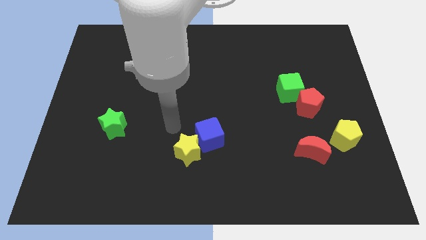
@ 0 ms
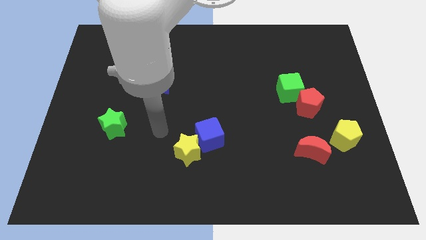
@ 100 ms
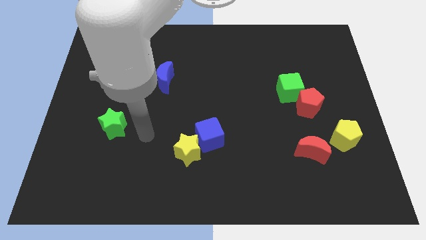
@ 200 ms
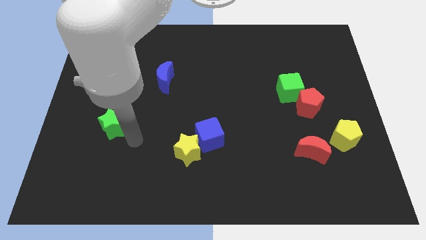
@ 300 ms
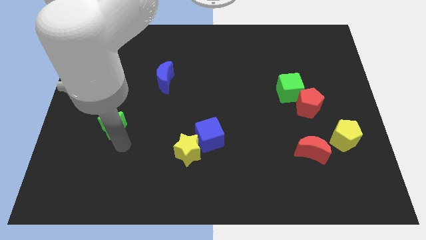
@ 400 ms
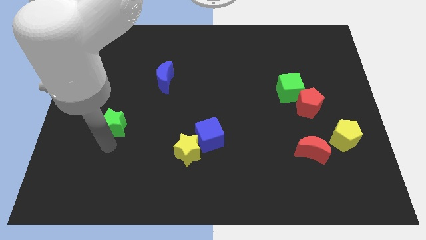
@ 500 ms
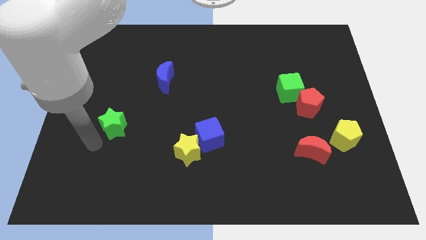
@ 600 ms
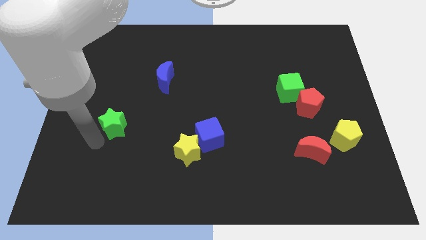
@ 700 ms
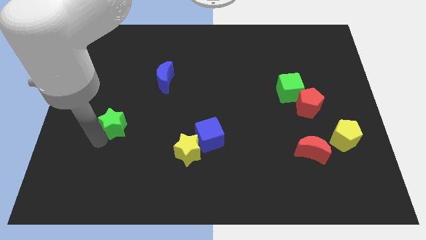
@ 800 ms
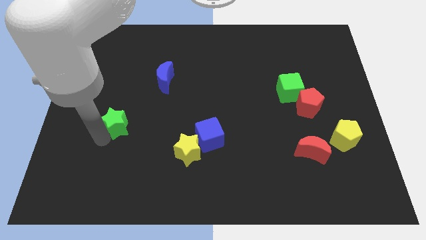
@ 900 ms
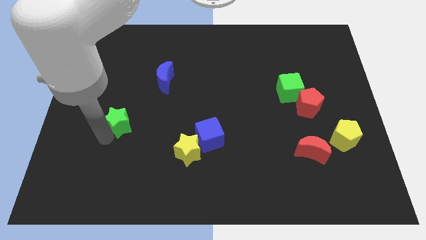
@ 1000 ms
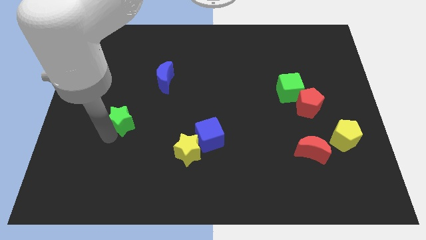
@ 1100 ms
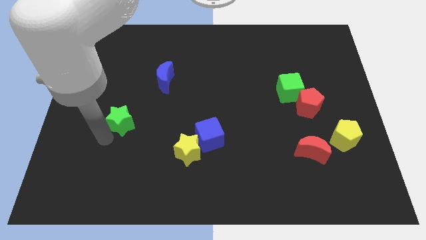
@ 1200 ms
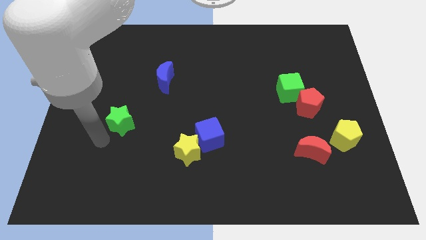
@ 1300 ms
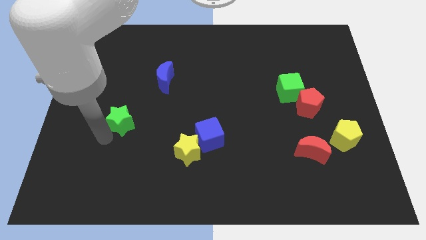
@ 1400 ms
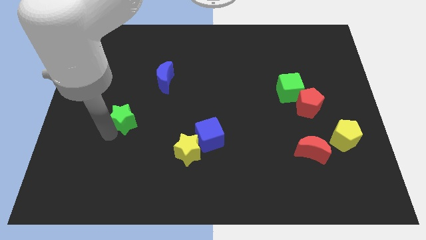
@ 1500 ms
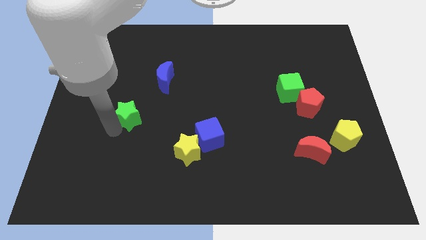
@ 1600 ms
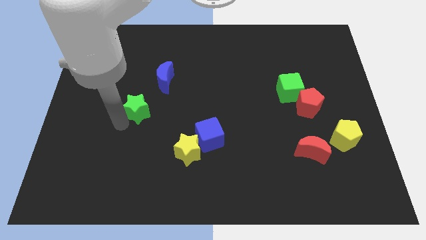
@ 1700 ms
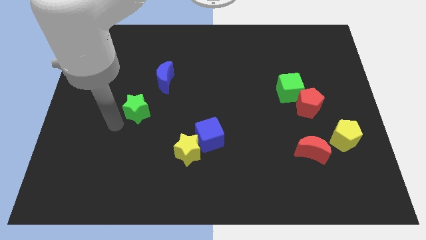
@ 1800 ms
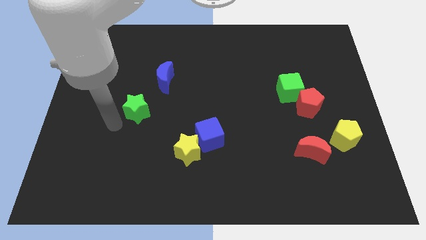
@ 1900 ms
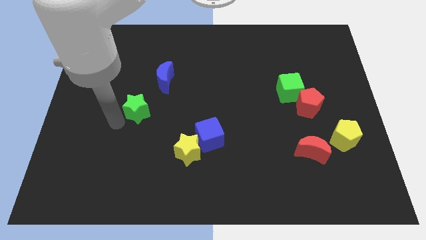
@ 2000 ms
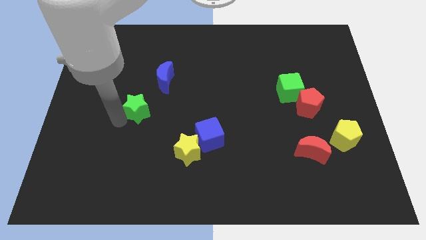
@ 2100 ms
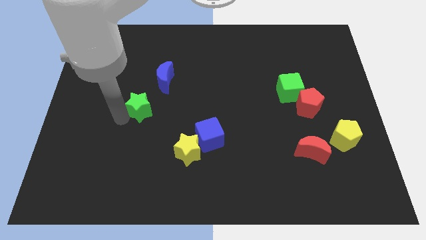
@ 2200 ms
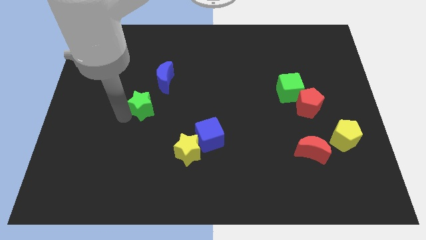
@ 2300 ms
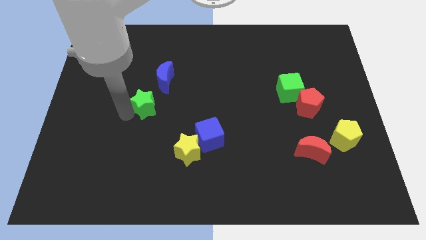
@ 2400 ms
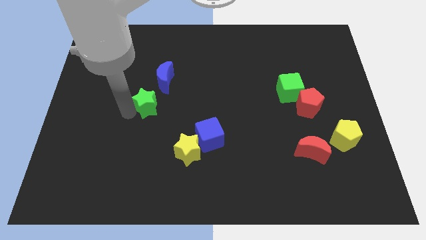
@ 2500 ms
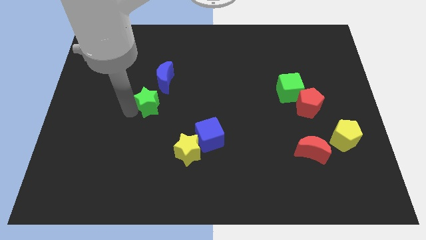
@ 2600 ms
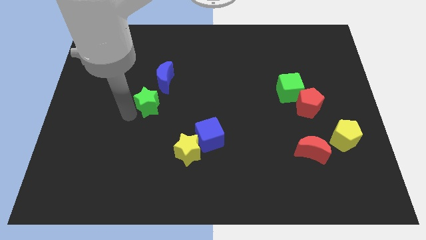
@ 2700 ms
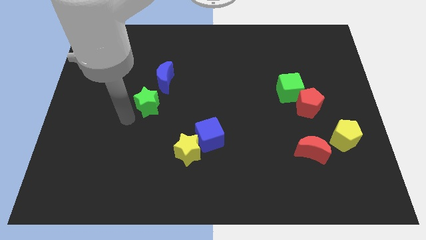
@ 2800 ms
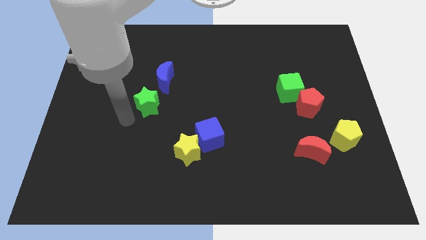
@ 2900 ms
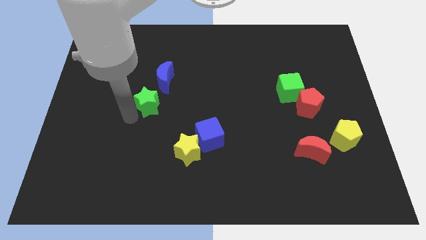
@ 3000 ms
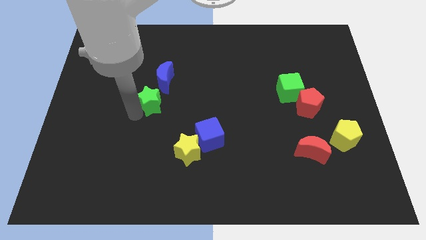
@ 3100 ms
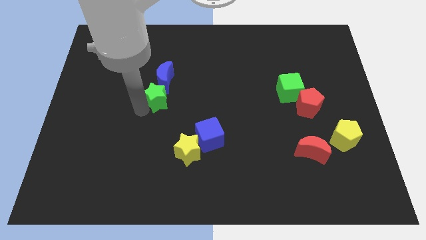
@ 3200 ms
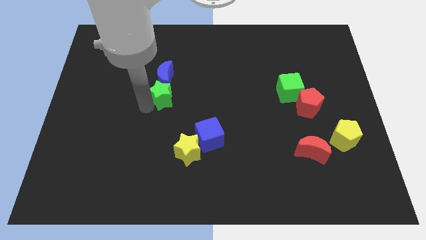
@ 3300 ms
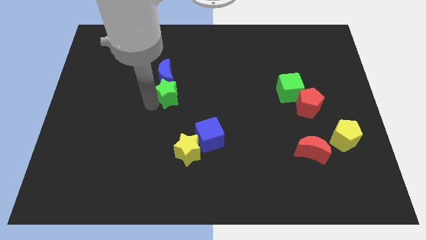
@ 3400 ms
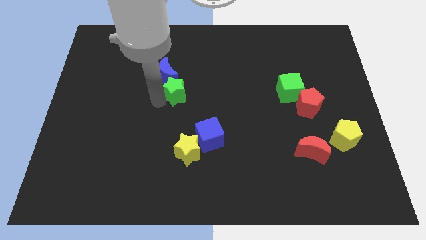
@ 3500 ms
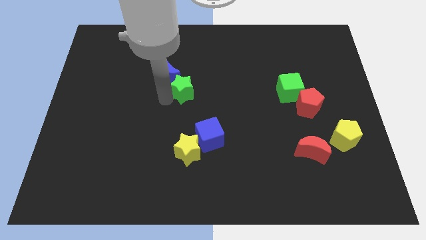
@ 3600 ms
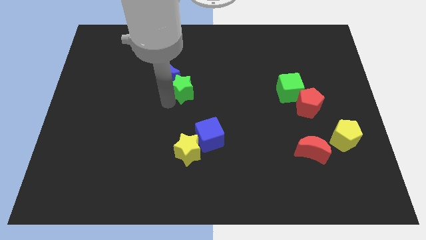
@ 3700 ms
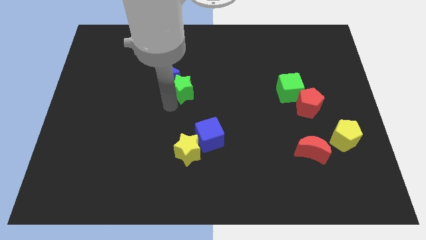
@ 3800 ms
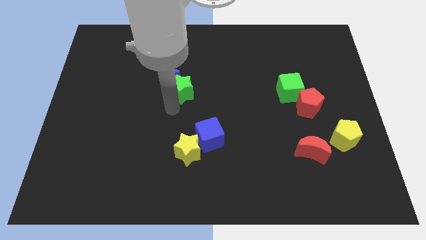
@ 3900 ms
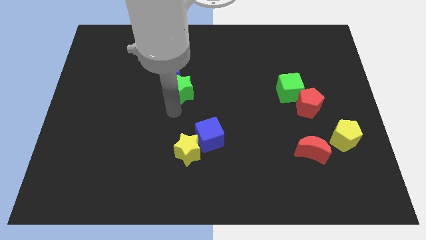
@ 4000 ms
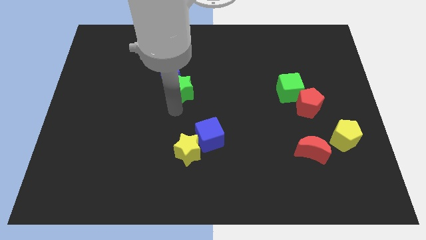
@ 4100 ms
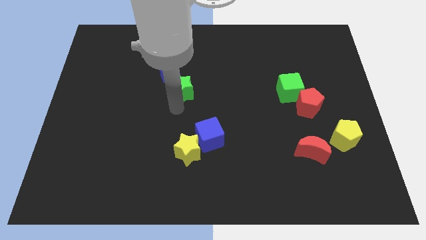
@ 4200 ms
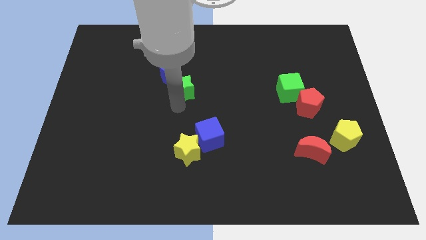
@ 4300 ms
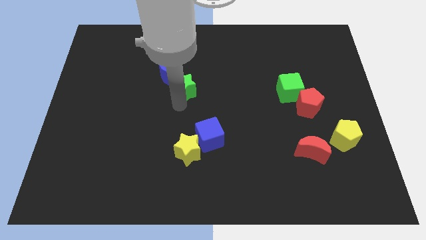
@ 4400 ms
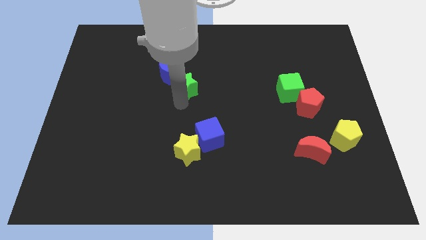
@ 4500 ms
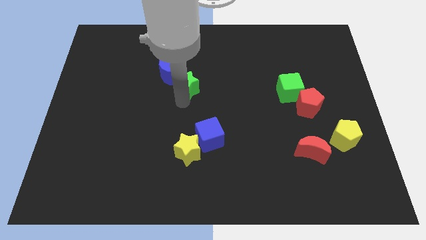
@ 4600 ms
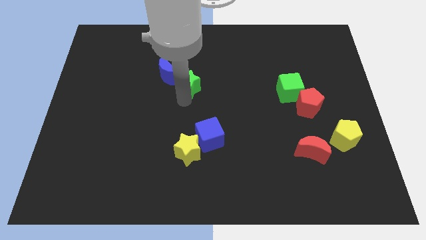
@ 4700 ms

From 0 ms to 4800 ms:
push the green star up and then to the right

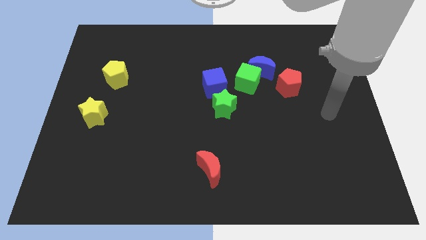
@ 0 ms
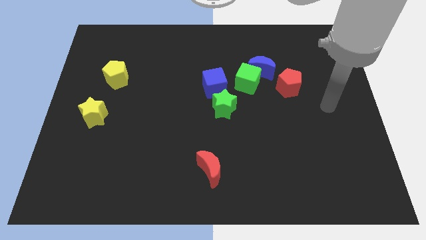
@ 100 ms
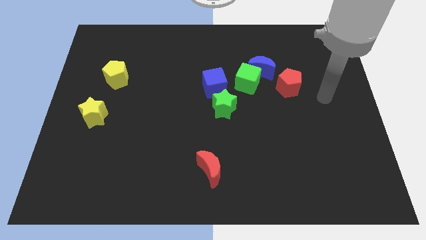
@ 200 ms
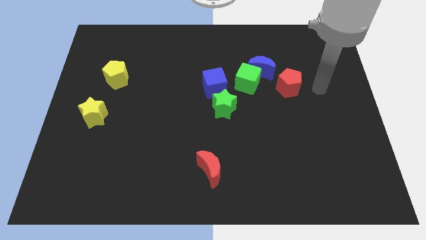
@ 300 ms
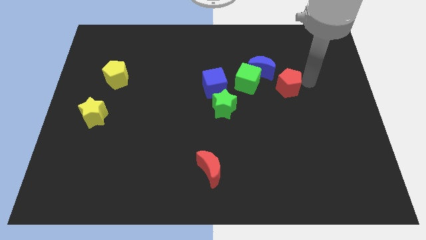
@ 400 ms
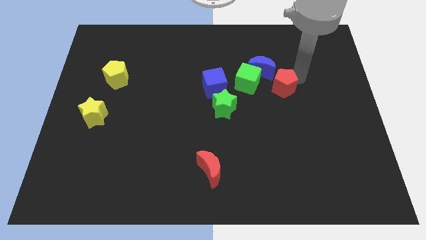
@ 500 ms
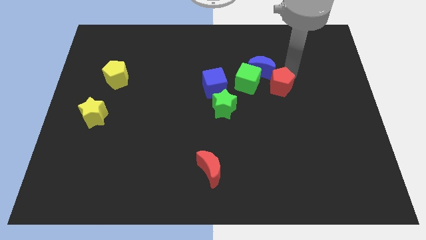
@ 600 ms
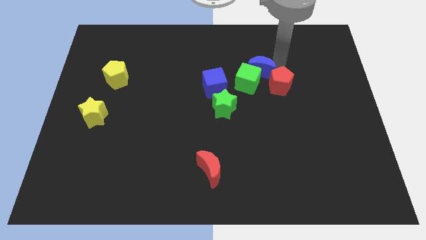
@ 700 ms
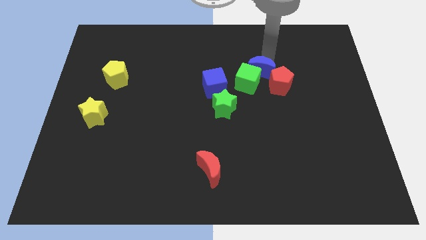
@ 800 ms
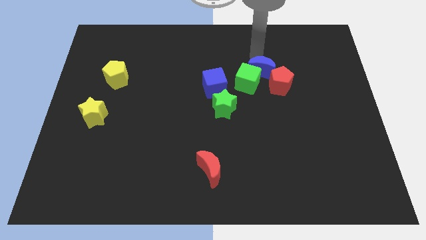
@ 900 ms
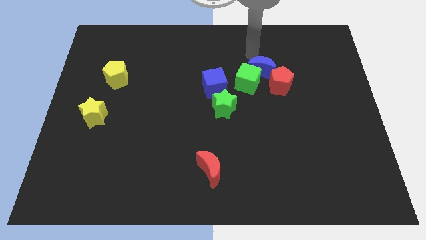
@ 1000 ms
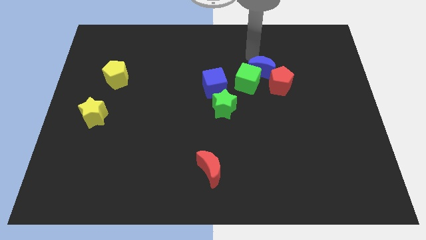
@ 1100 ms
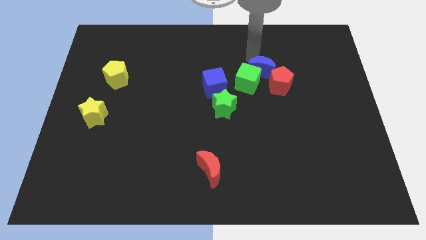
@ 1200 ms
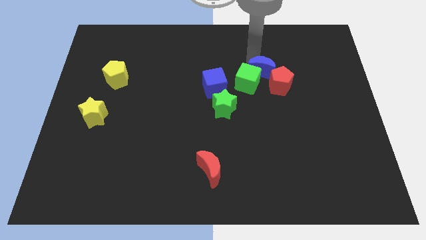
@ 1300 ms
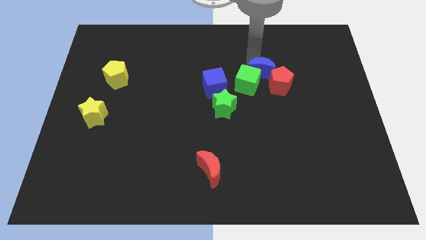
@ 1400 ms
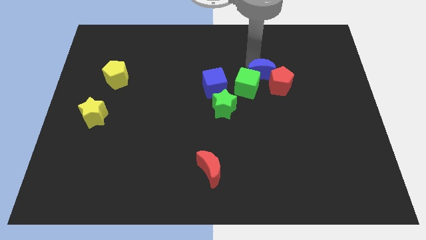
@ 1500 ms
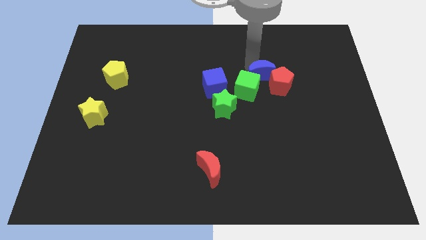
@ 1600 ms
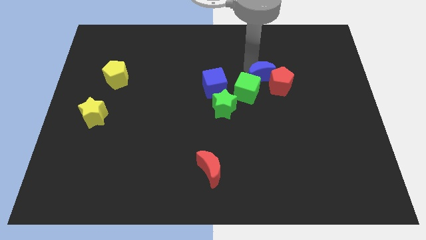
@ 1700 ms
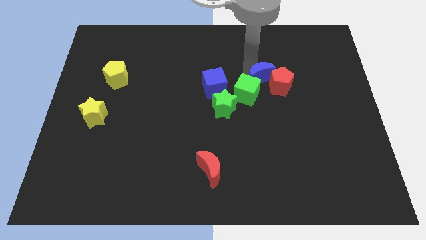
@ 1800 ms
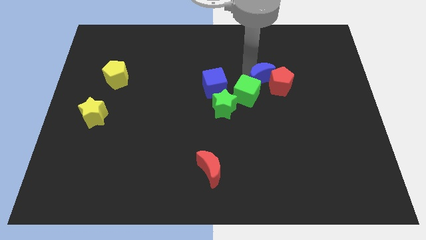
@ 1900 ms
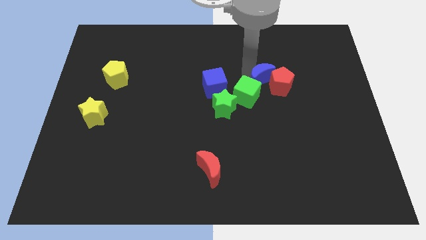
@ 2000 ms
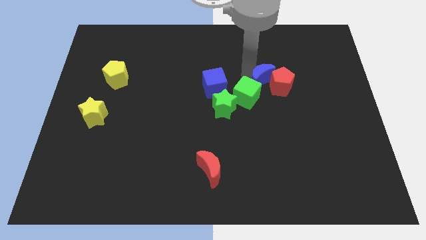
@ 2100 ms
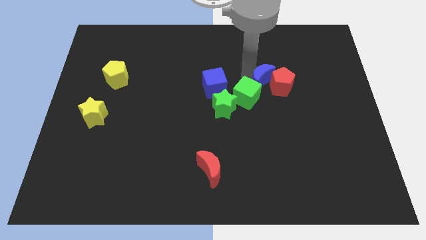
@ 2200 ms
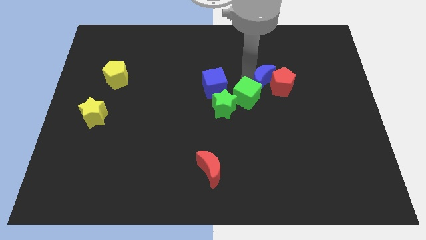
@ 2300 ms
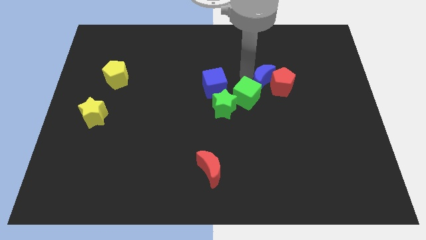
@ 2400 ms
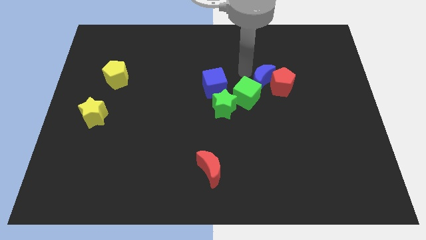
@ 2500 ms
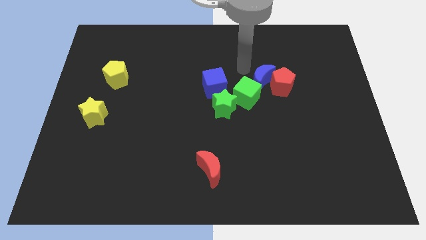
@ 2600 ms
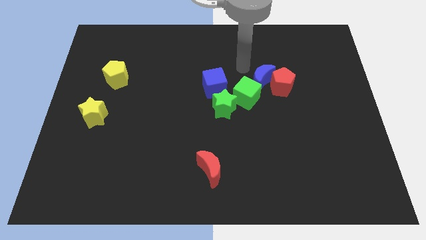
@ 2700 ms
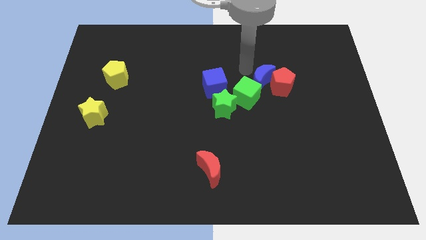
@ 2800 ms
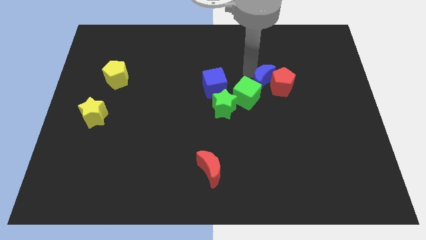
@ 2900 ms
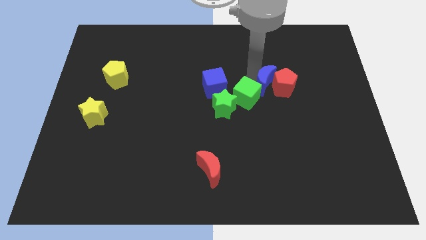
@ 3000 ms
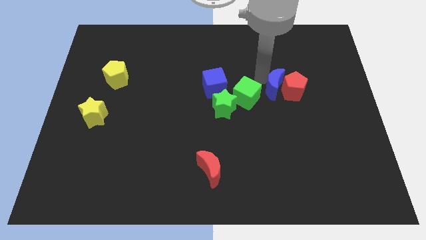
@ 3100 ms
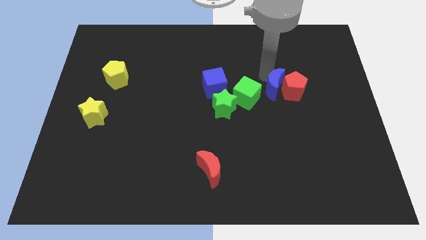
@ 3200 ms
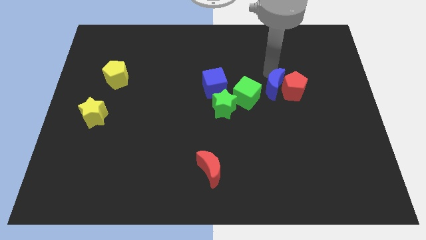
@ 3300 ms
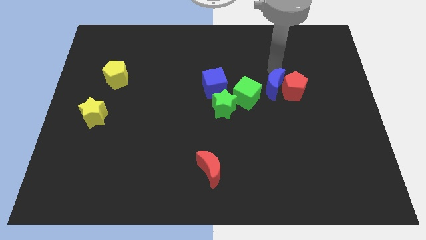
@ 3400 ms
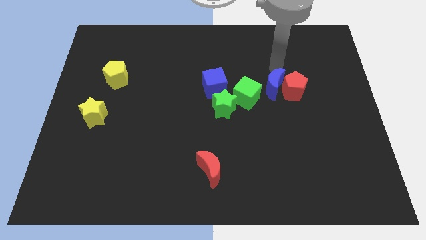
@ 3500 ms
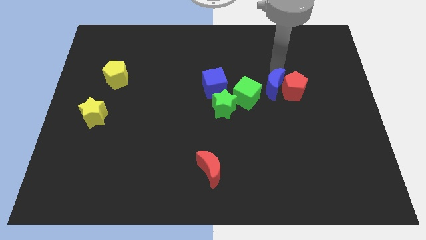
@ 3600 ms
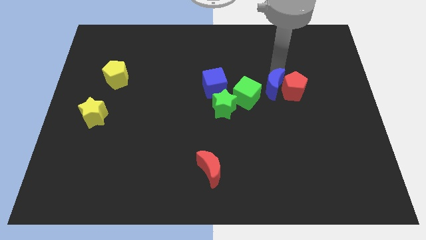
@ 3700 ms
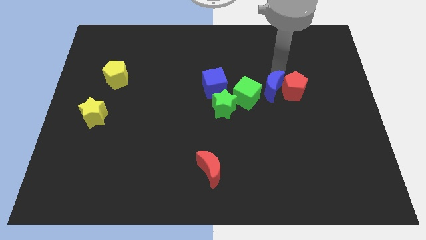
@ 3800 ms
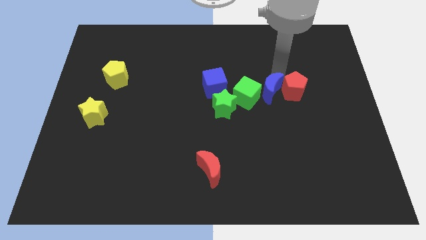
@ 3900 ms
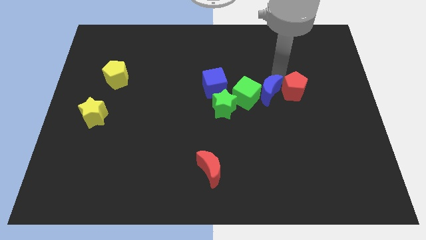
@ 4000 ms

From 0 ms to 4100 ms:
push the blue moon downwards a little
